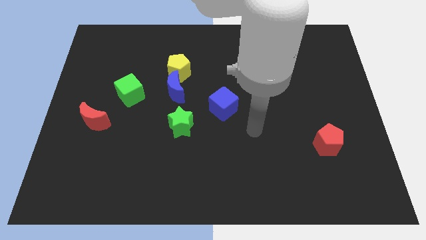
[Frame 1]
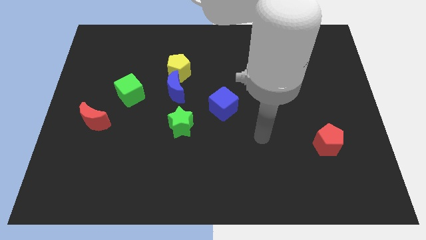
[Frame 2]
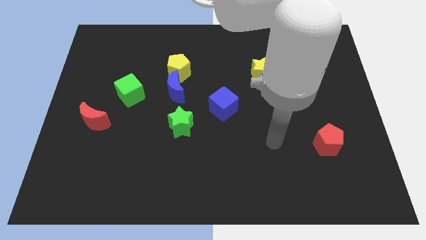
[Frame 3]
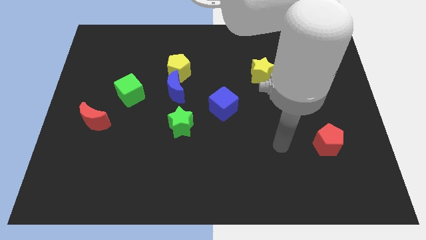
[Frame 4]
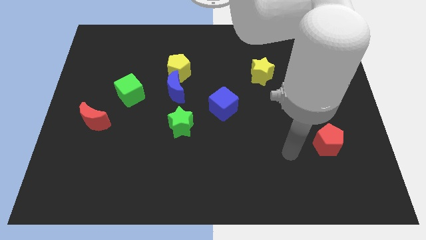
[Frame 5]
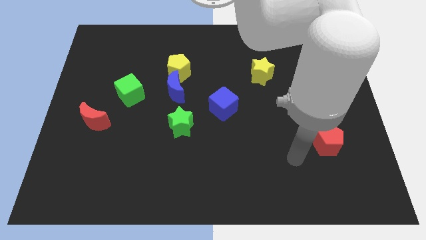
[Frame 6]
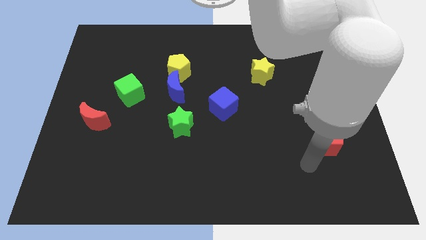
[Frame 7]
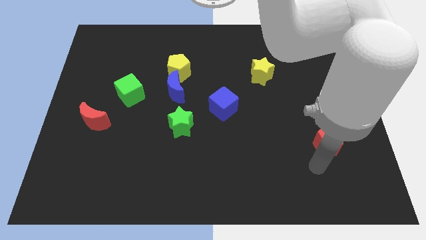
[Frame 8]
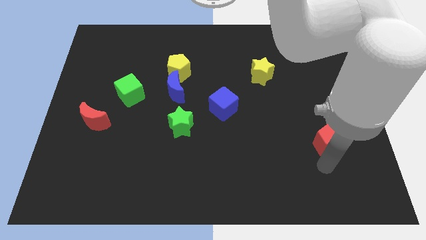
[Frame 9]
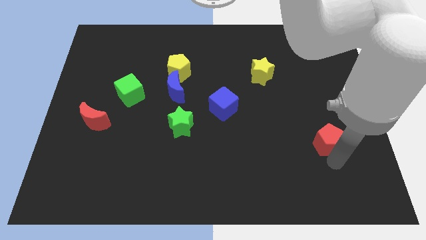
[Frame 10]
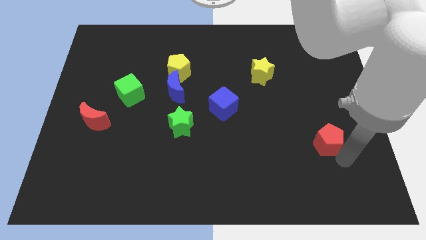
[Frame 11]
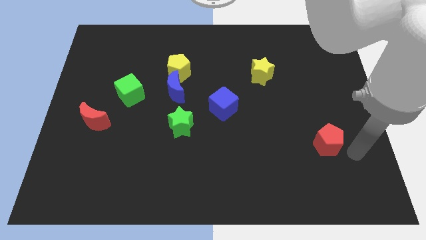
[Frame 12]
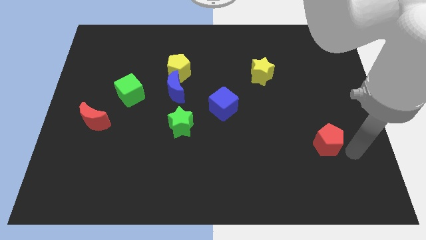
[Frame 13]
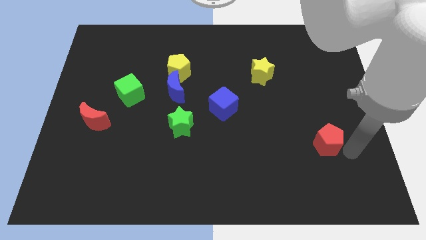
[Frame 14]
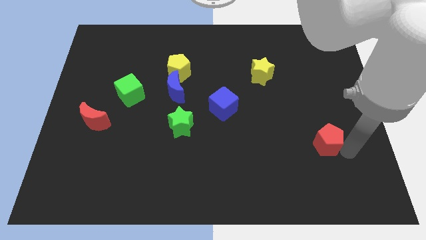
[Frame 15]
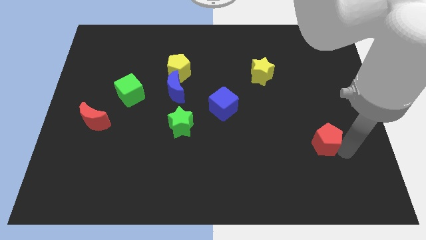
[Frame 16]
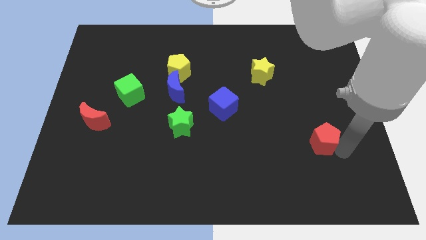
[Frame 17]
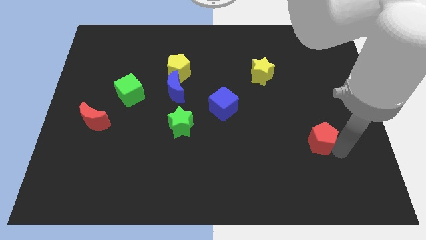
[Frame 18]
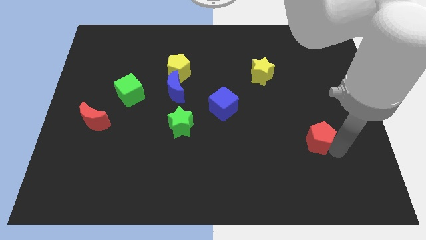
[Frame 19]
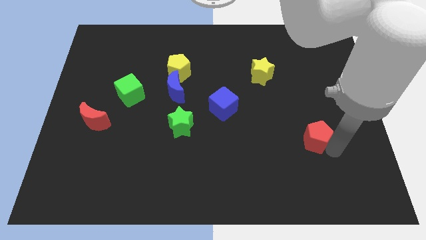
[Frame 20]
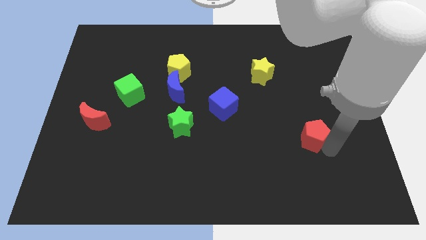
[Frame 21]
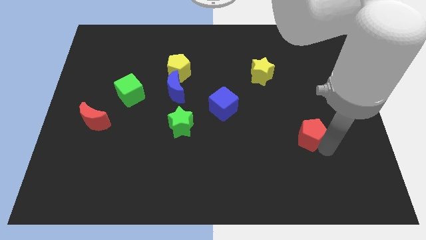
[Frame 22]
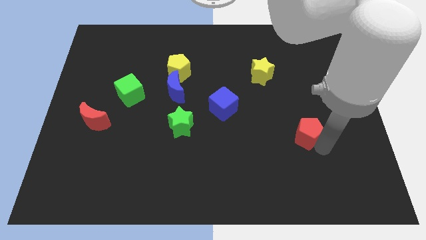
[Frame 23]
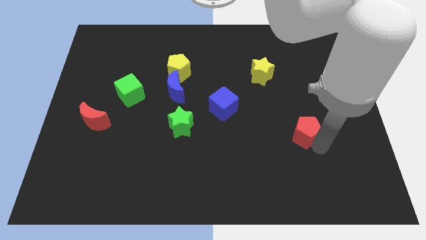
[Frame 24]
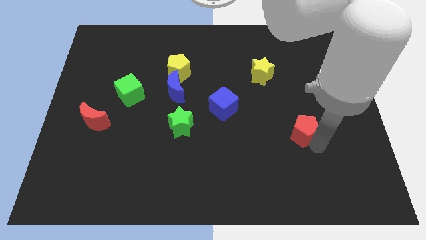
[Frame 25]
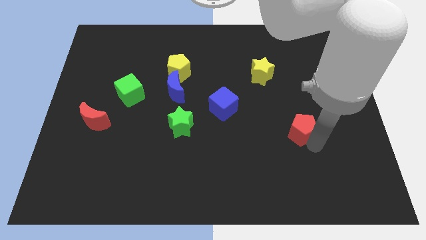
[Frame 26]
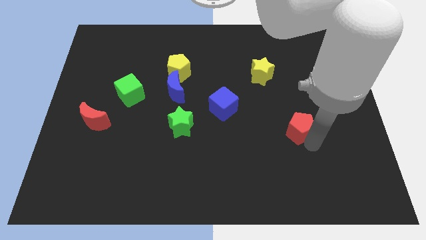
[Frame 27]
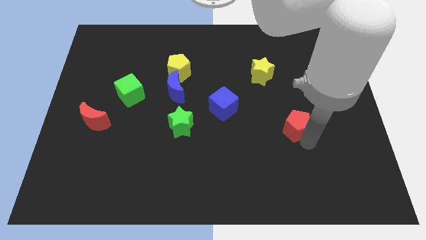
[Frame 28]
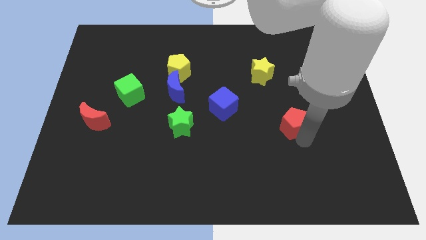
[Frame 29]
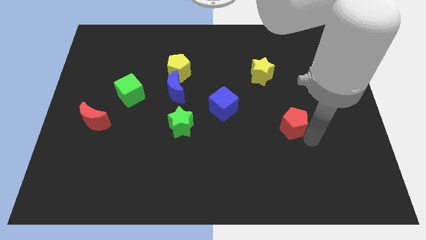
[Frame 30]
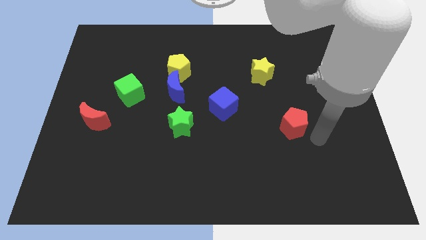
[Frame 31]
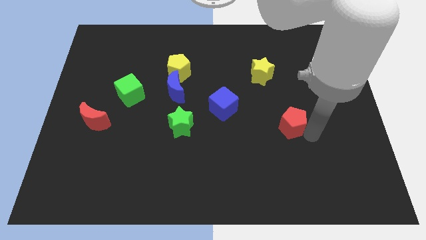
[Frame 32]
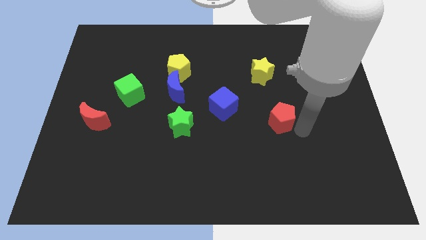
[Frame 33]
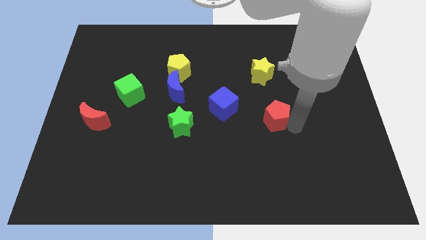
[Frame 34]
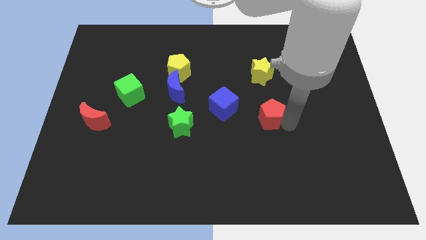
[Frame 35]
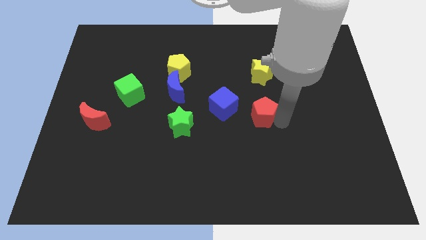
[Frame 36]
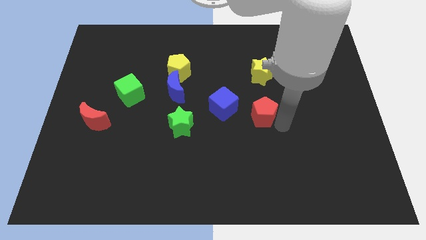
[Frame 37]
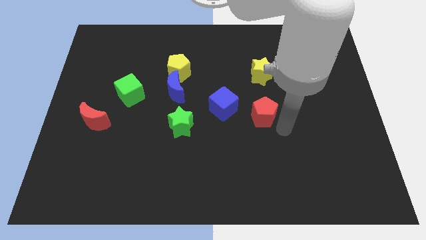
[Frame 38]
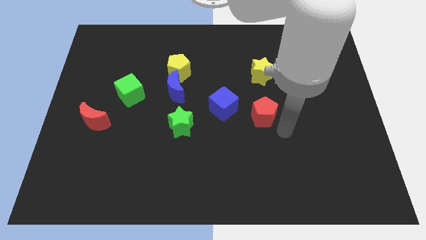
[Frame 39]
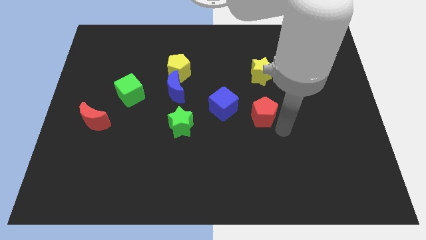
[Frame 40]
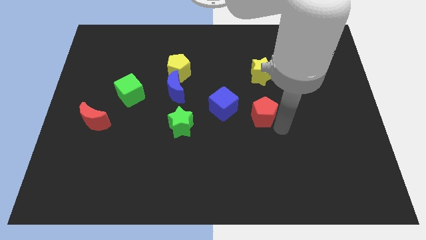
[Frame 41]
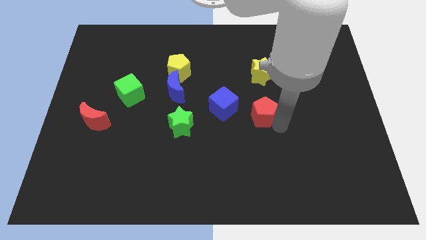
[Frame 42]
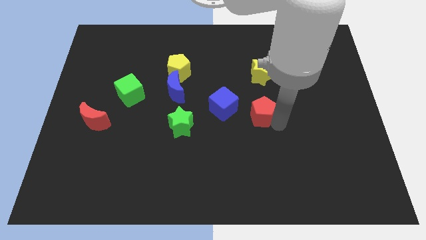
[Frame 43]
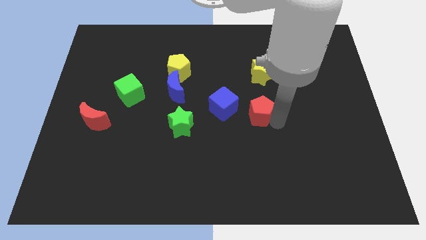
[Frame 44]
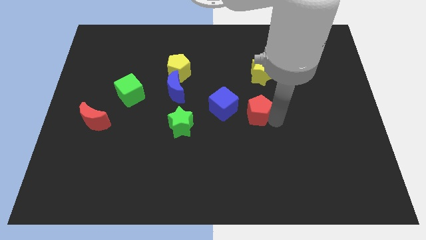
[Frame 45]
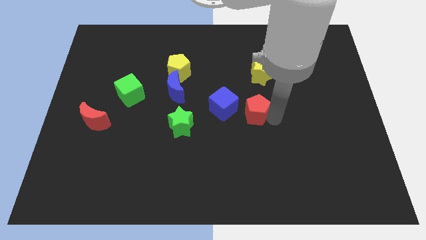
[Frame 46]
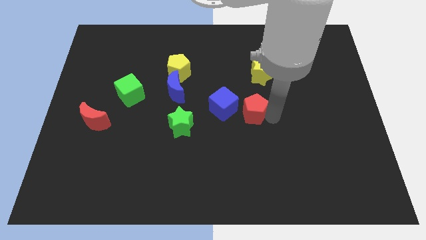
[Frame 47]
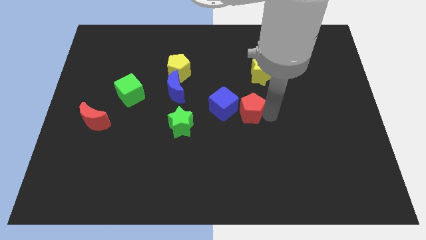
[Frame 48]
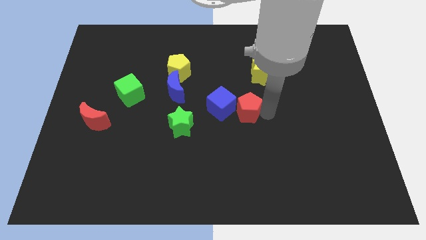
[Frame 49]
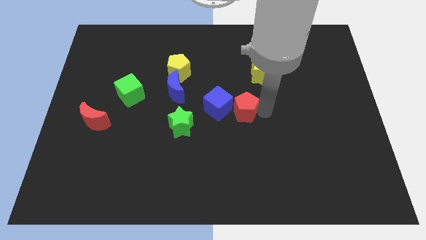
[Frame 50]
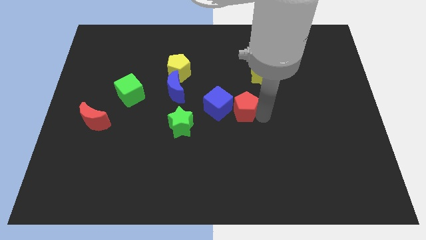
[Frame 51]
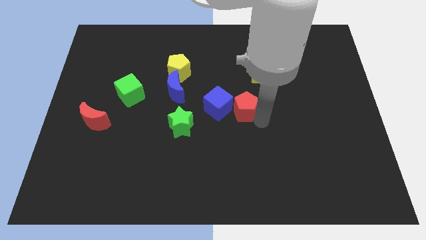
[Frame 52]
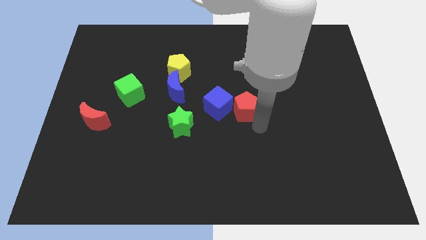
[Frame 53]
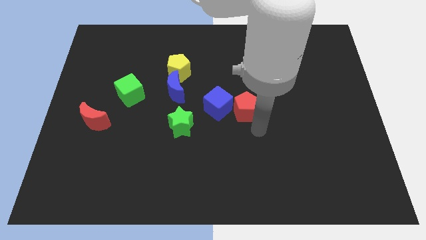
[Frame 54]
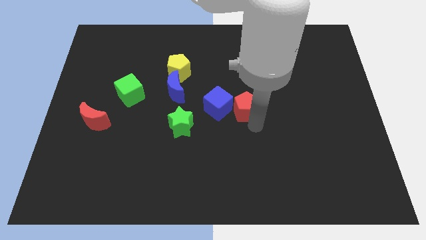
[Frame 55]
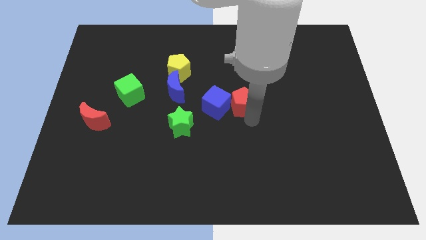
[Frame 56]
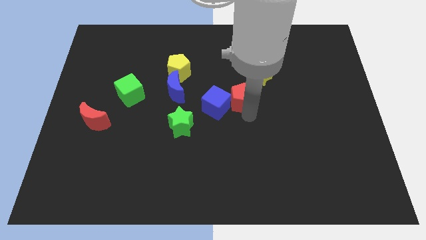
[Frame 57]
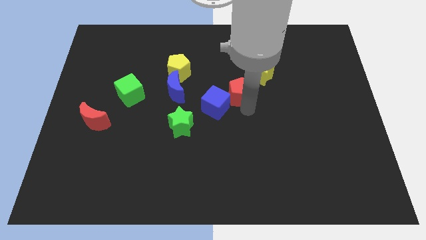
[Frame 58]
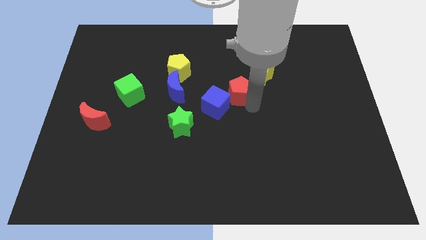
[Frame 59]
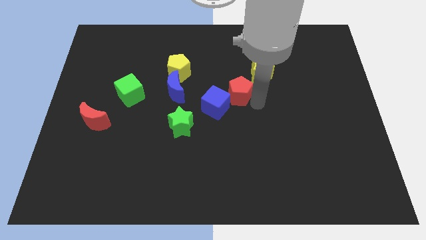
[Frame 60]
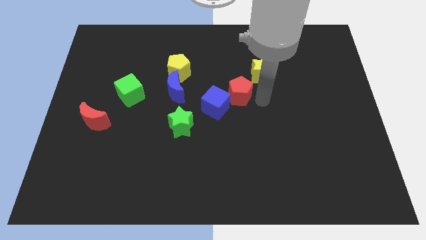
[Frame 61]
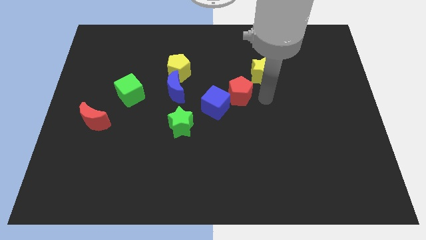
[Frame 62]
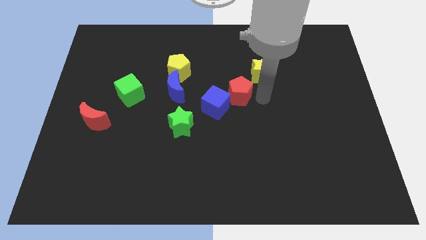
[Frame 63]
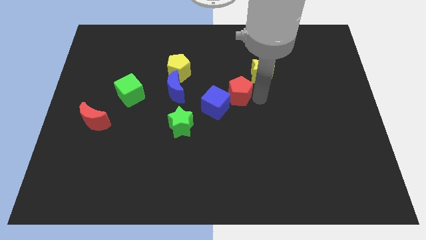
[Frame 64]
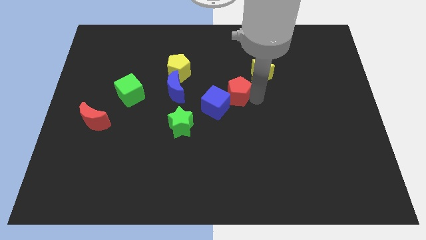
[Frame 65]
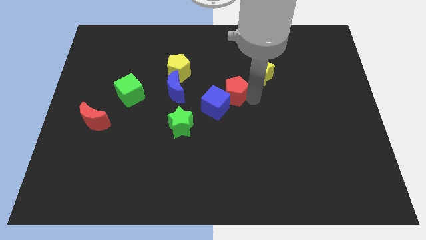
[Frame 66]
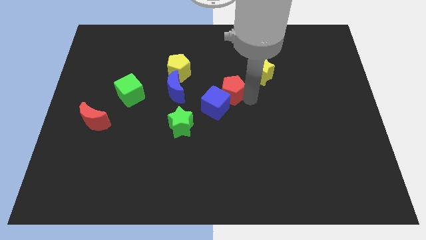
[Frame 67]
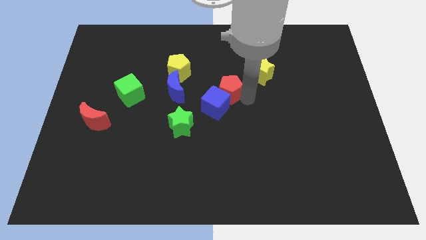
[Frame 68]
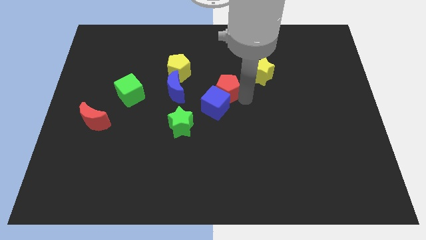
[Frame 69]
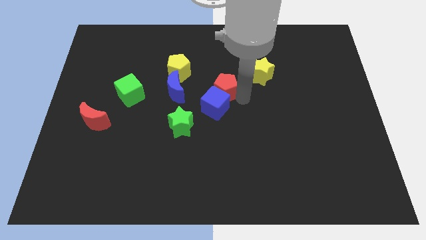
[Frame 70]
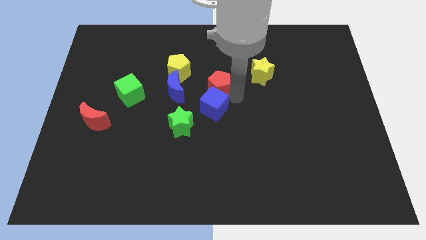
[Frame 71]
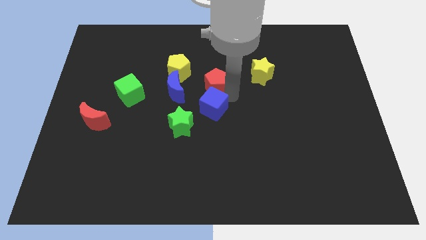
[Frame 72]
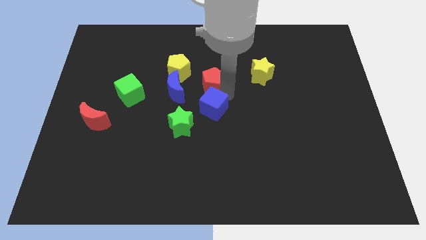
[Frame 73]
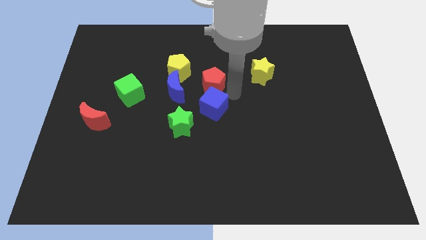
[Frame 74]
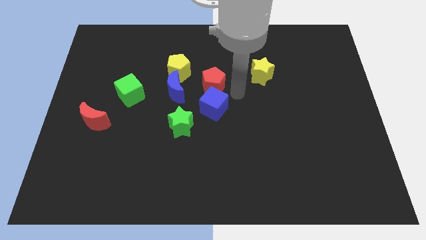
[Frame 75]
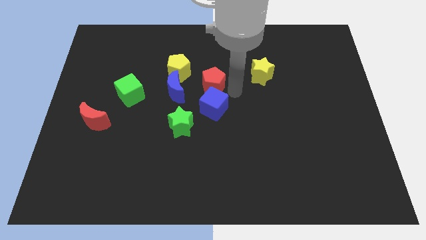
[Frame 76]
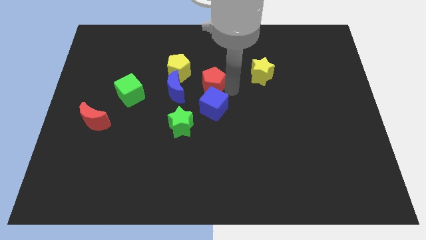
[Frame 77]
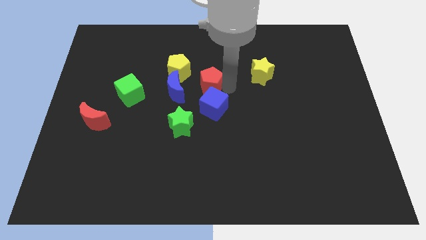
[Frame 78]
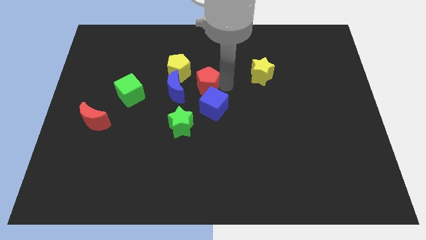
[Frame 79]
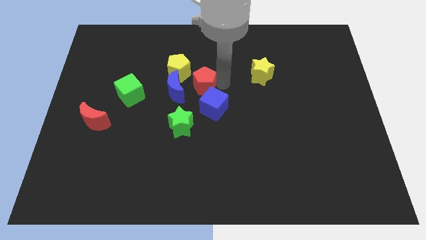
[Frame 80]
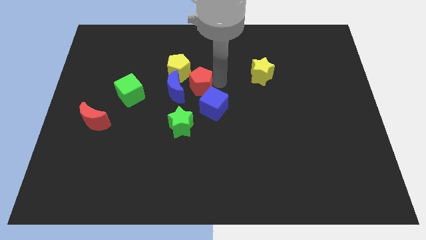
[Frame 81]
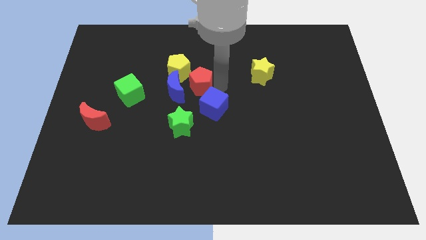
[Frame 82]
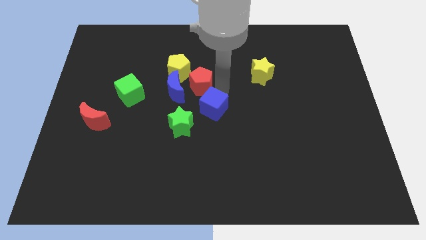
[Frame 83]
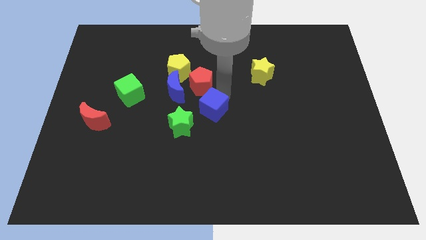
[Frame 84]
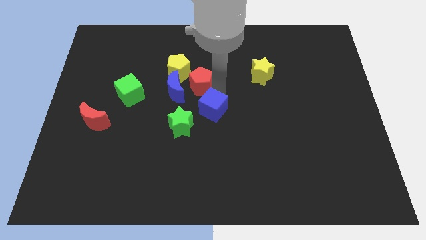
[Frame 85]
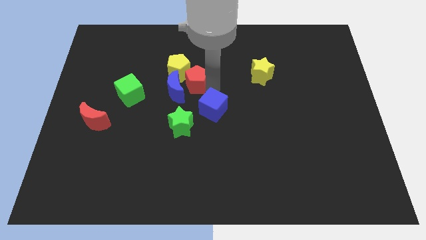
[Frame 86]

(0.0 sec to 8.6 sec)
put the red pentagon close to the yellow pentagon
